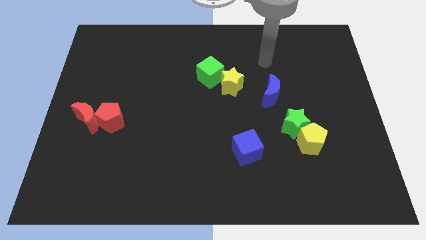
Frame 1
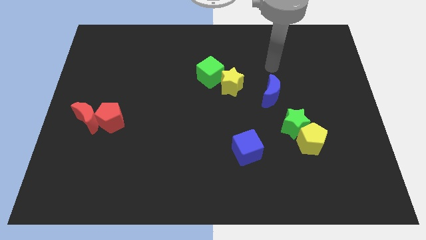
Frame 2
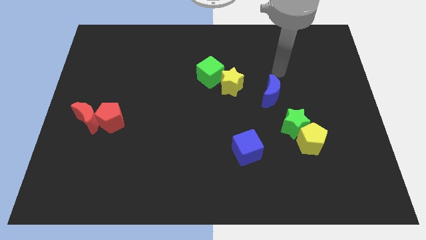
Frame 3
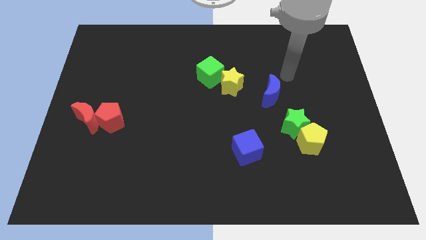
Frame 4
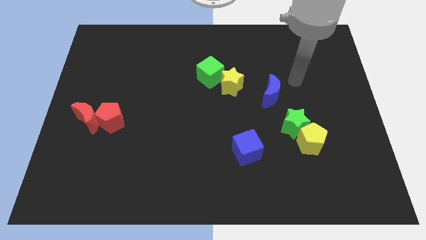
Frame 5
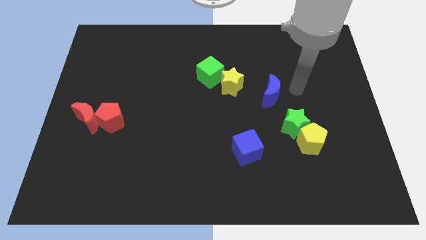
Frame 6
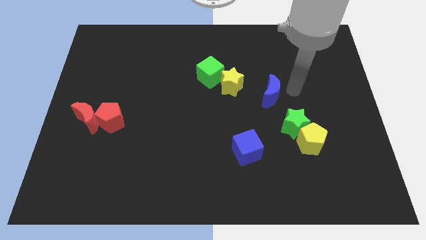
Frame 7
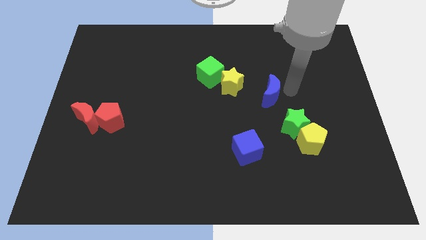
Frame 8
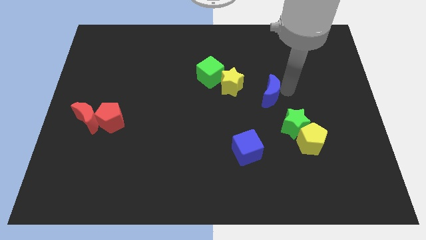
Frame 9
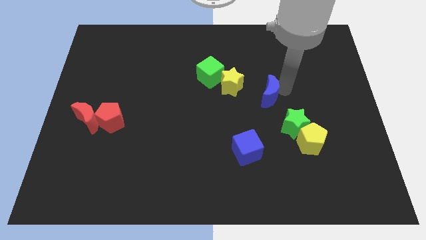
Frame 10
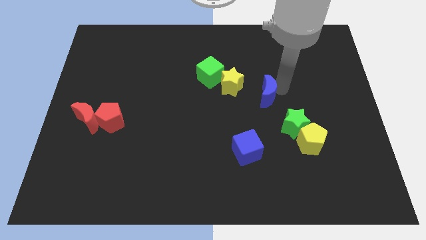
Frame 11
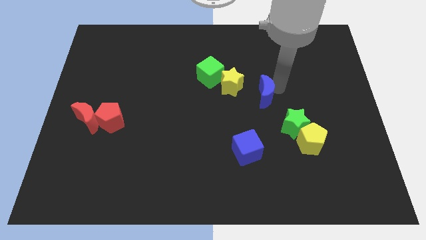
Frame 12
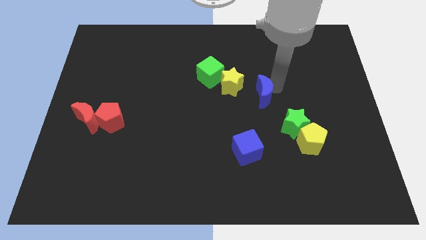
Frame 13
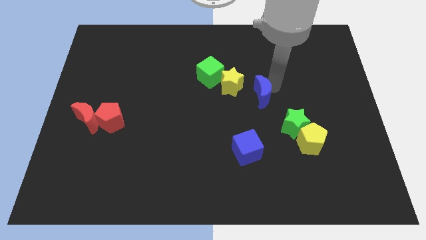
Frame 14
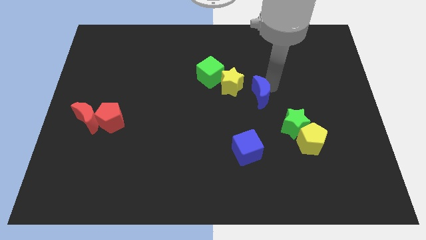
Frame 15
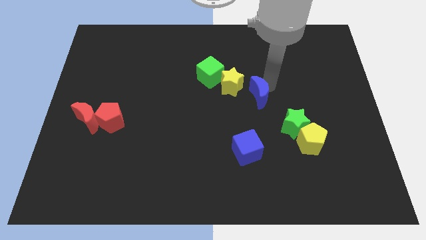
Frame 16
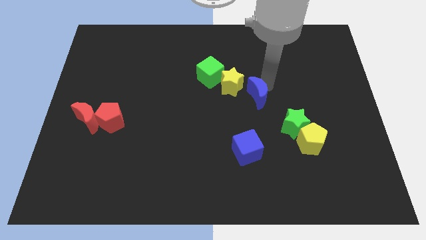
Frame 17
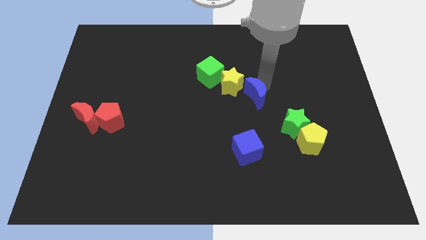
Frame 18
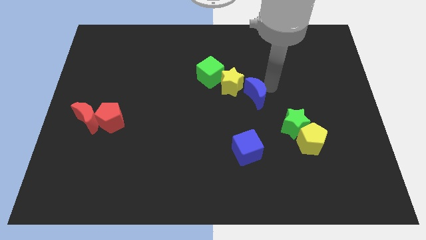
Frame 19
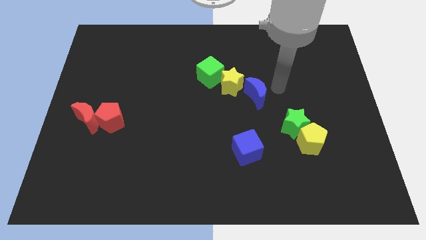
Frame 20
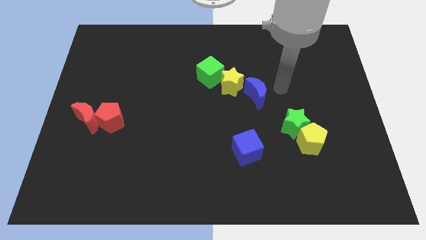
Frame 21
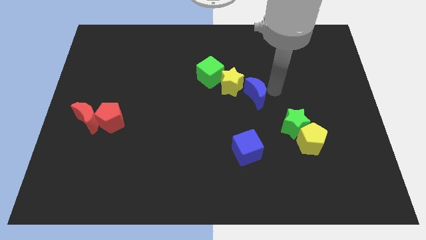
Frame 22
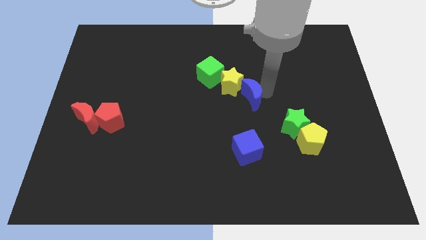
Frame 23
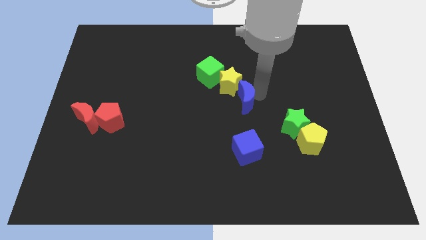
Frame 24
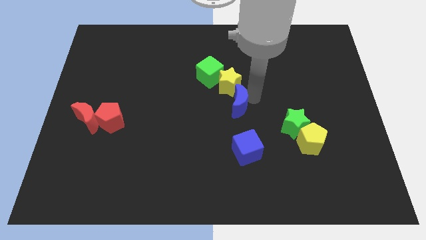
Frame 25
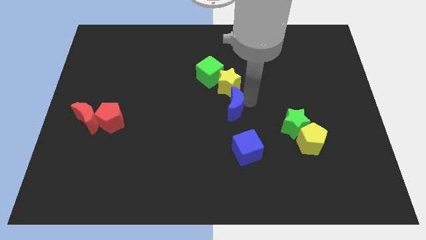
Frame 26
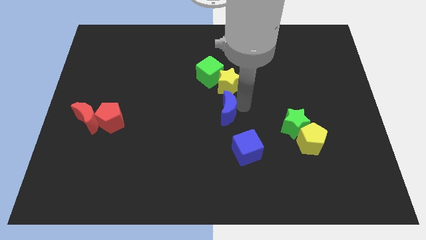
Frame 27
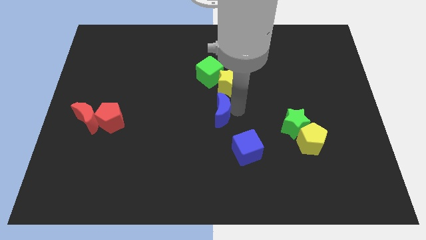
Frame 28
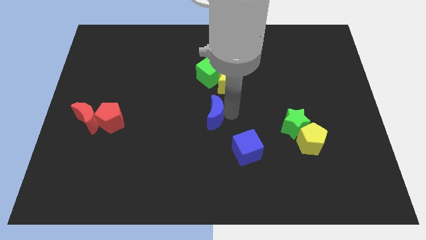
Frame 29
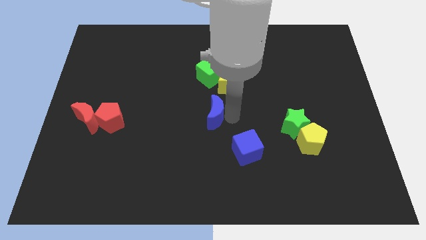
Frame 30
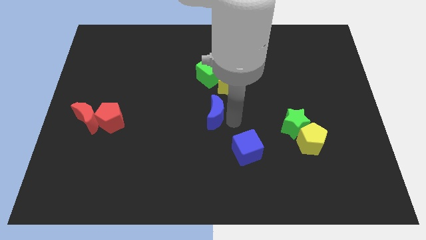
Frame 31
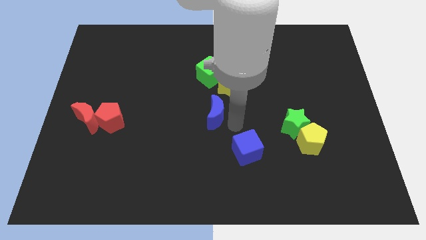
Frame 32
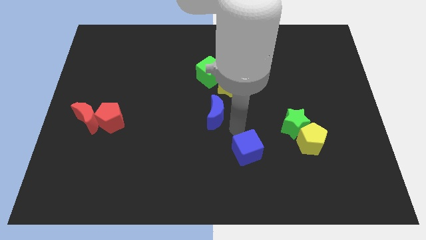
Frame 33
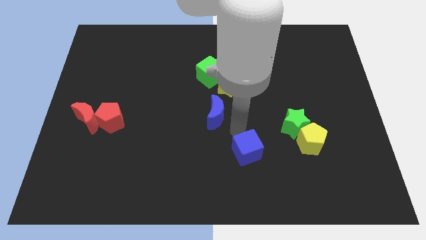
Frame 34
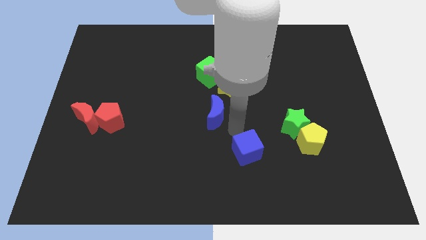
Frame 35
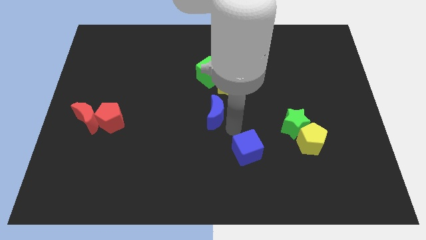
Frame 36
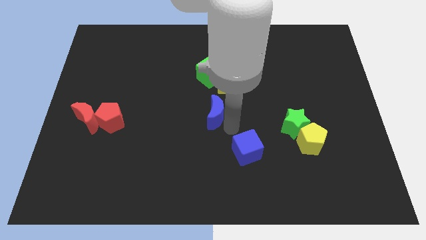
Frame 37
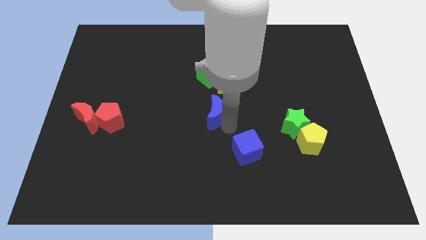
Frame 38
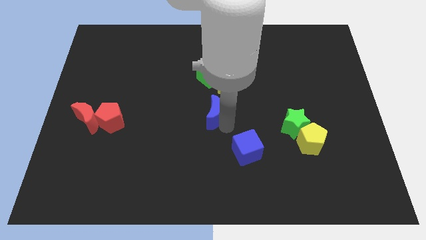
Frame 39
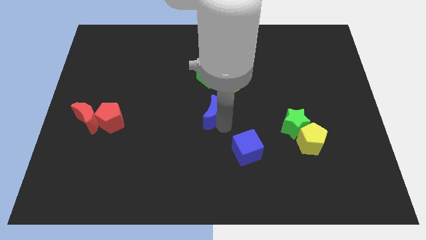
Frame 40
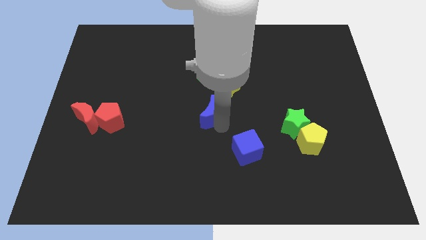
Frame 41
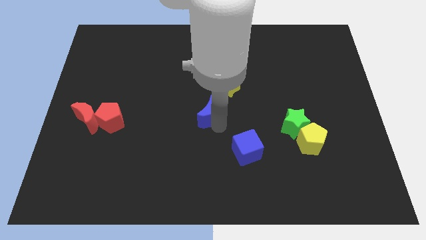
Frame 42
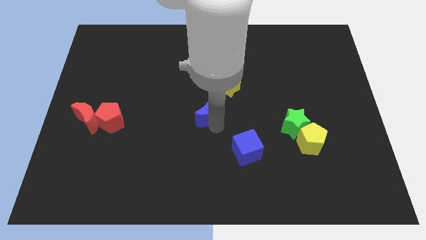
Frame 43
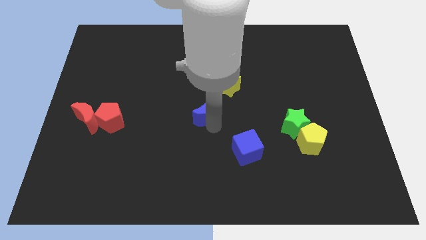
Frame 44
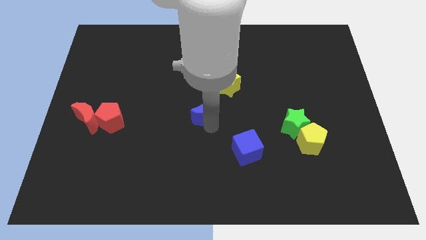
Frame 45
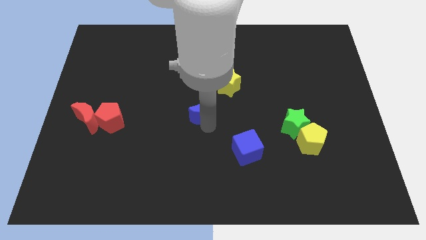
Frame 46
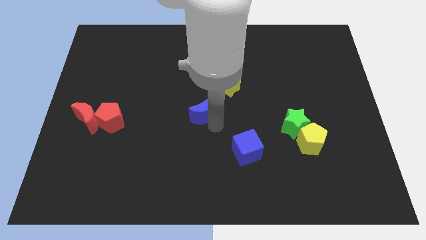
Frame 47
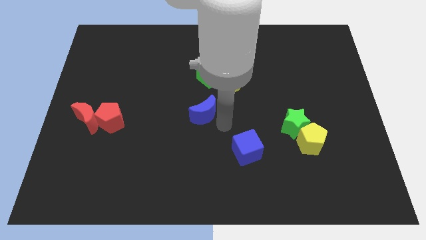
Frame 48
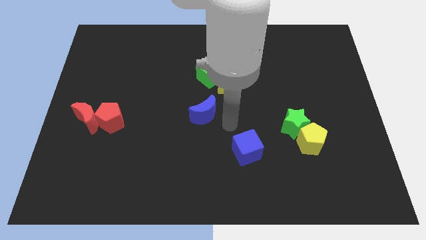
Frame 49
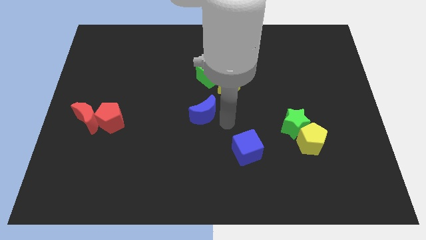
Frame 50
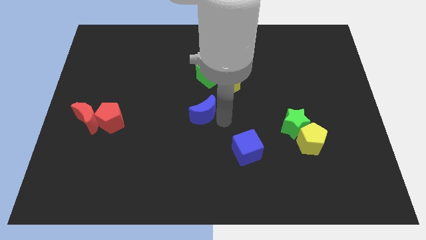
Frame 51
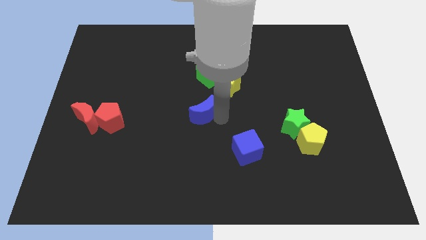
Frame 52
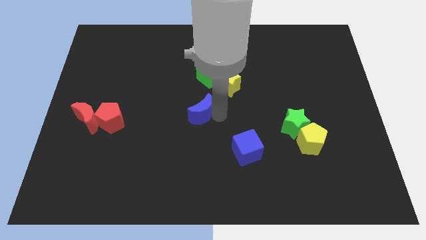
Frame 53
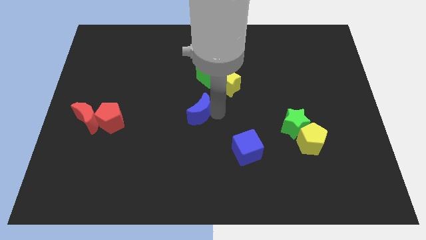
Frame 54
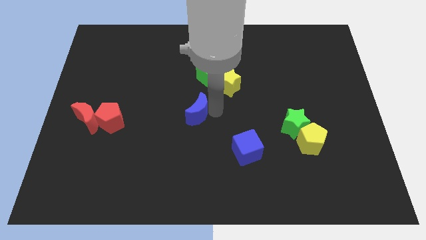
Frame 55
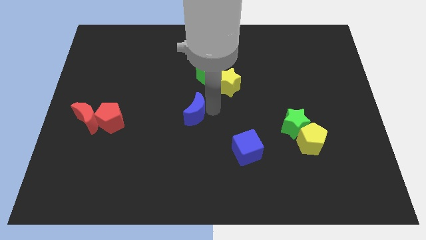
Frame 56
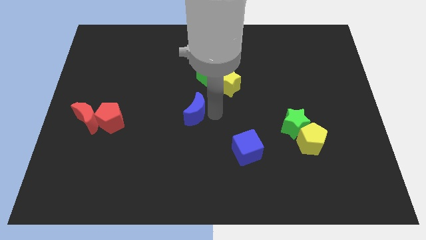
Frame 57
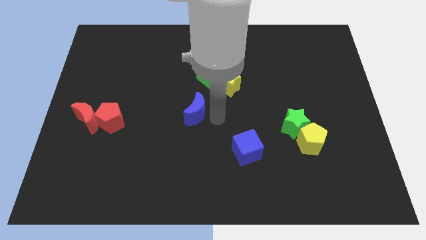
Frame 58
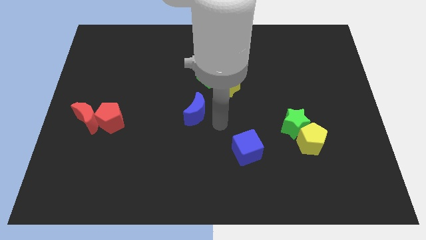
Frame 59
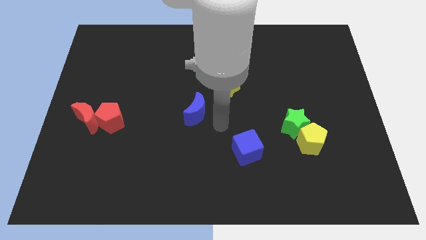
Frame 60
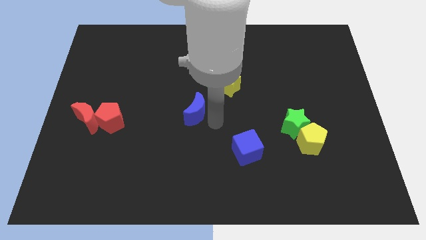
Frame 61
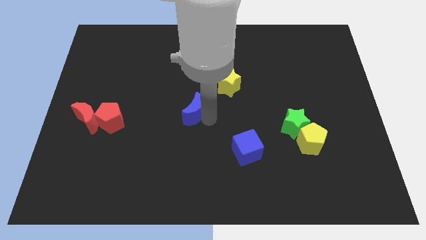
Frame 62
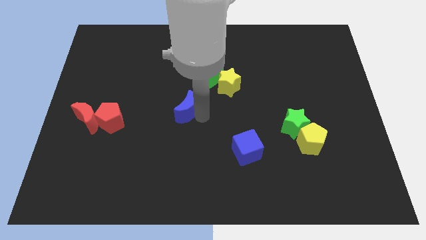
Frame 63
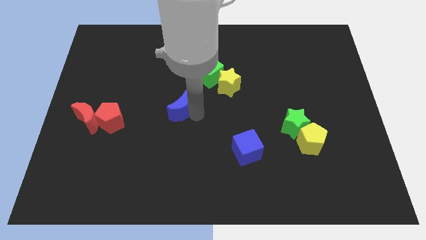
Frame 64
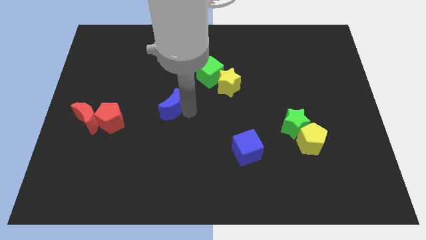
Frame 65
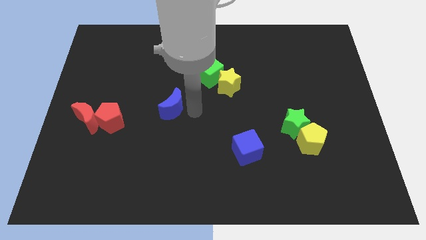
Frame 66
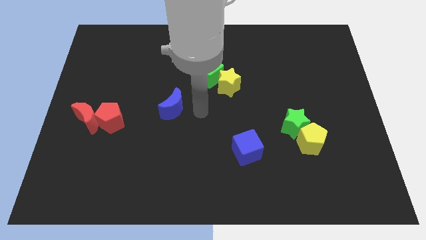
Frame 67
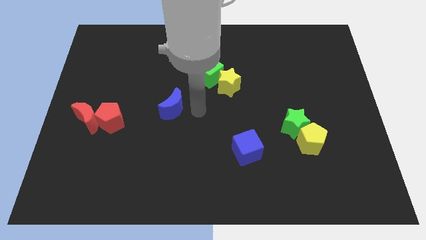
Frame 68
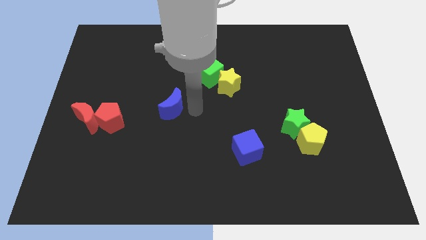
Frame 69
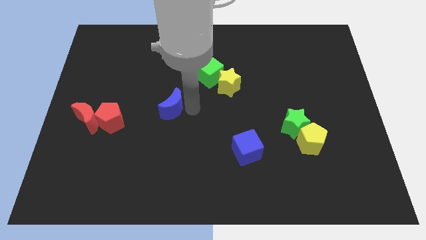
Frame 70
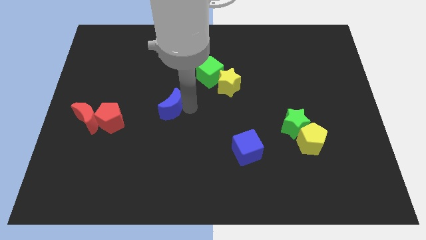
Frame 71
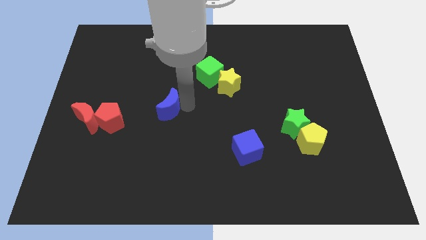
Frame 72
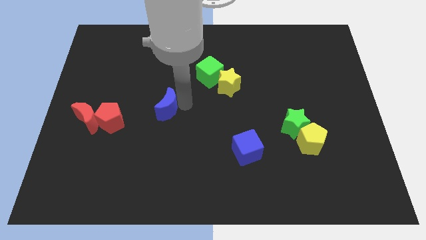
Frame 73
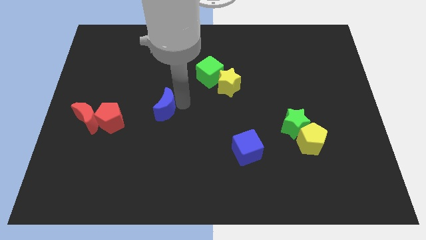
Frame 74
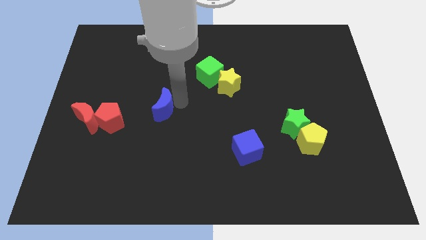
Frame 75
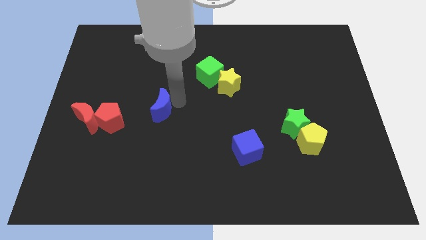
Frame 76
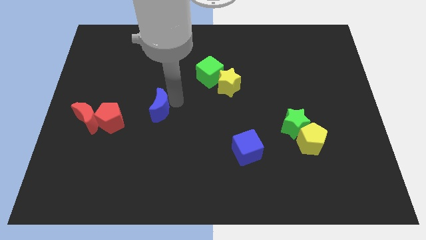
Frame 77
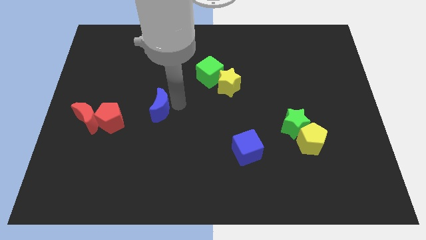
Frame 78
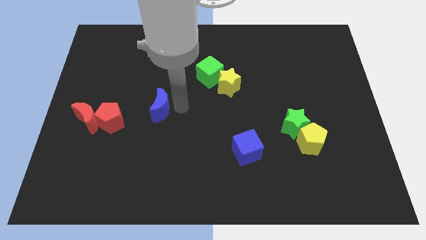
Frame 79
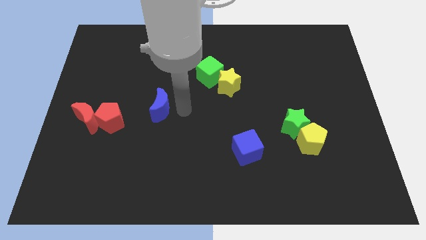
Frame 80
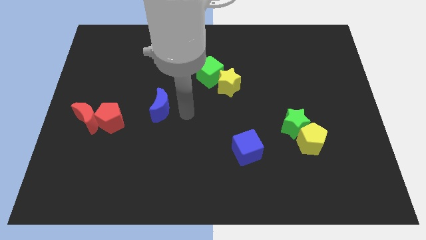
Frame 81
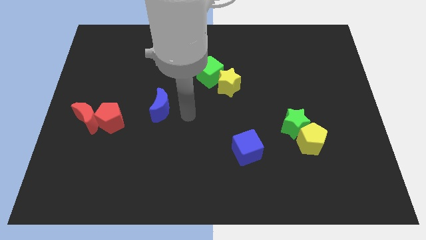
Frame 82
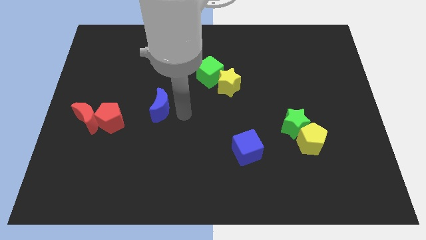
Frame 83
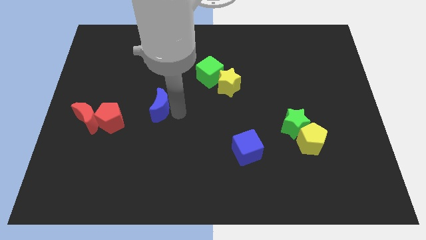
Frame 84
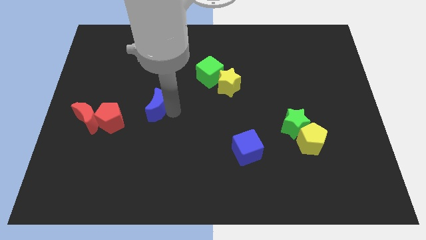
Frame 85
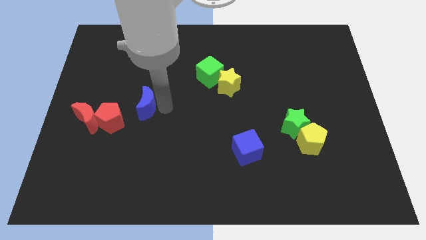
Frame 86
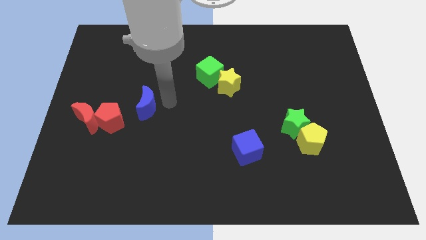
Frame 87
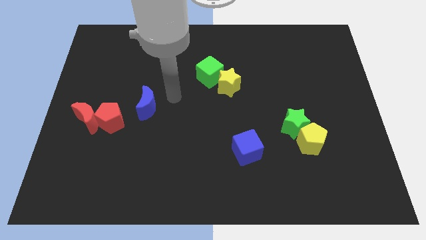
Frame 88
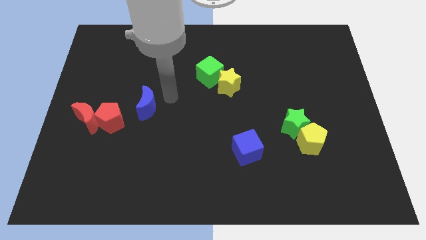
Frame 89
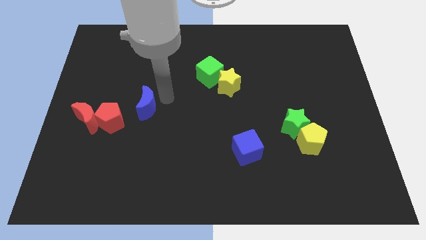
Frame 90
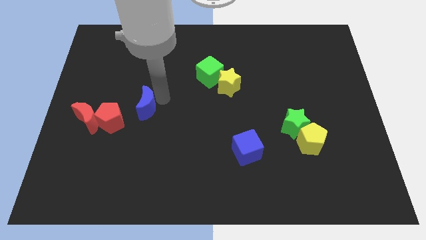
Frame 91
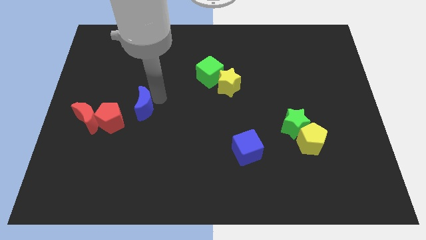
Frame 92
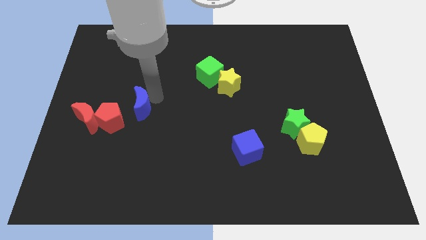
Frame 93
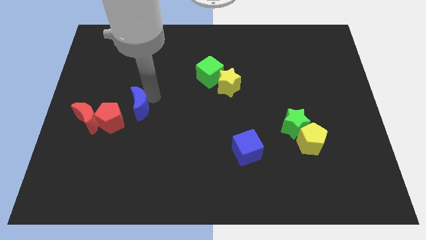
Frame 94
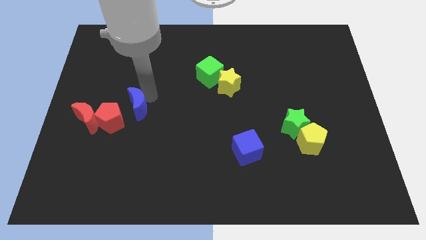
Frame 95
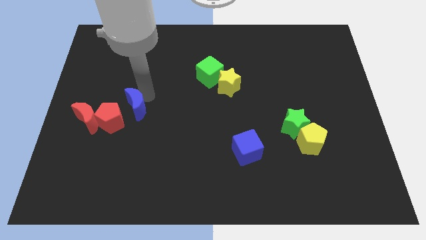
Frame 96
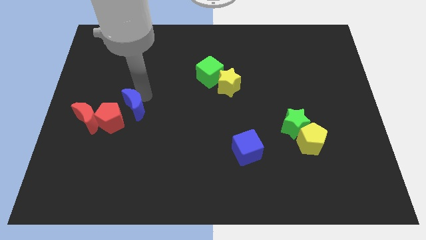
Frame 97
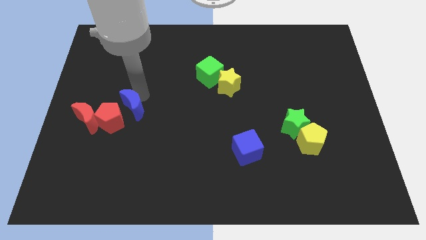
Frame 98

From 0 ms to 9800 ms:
slide the blue moon close to the red pentagon
